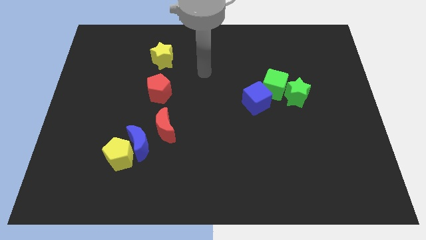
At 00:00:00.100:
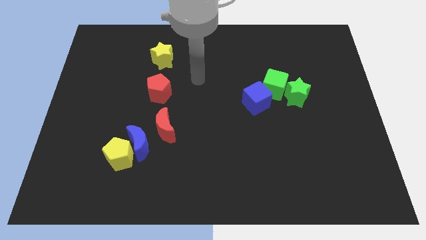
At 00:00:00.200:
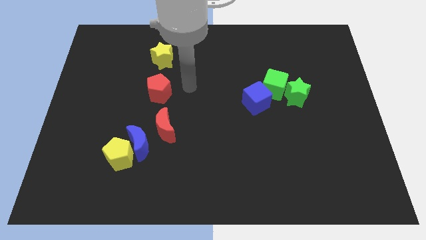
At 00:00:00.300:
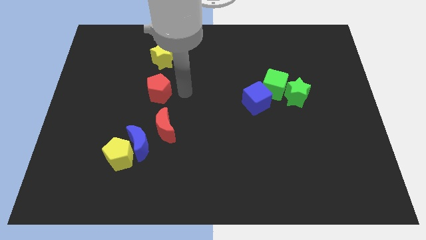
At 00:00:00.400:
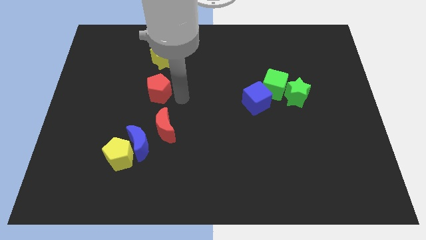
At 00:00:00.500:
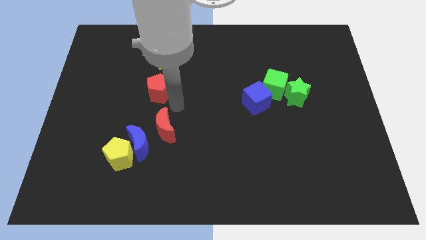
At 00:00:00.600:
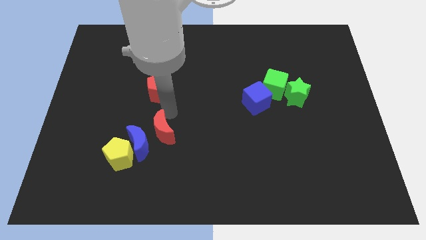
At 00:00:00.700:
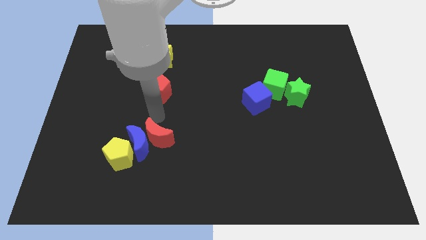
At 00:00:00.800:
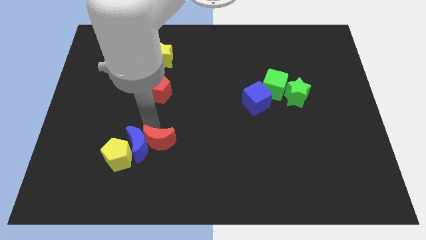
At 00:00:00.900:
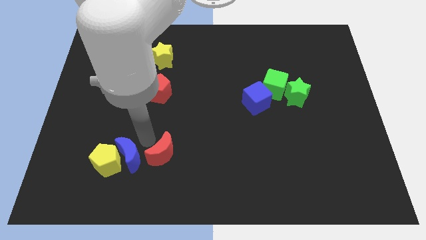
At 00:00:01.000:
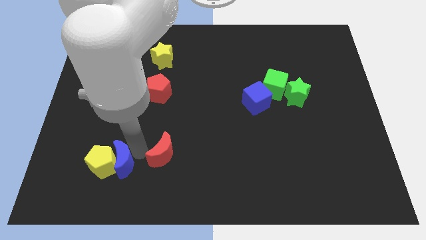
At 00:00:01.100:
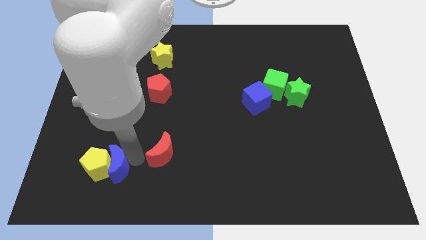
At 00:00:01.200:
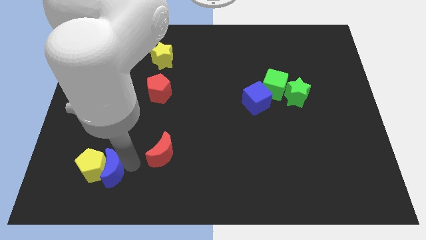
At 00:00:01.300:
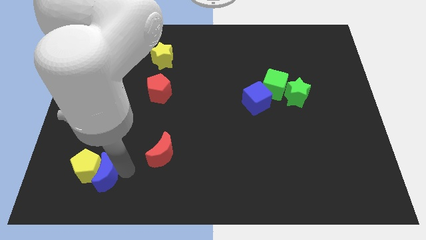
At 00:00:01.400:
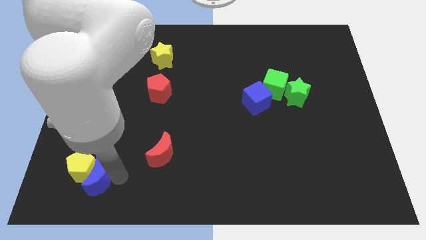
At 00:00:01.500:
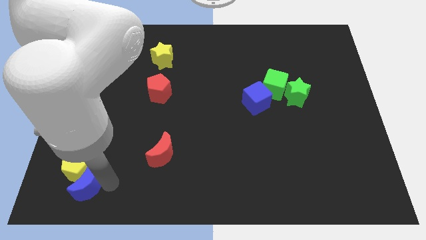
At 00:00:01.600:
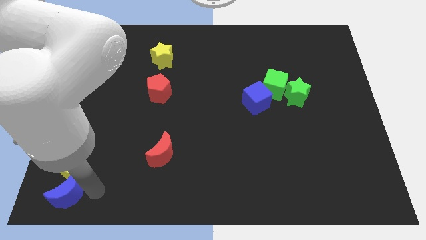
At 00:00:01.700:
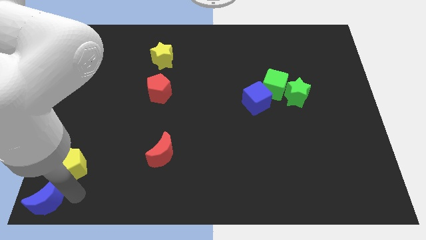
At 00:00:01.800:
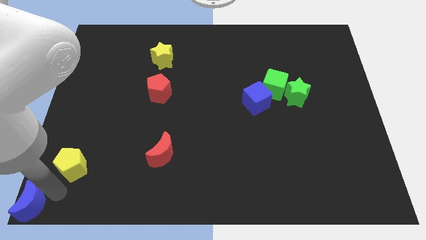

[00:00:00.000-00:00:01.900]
separate the yellow pentagon from the blue moon

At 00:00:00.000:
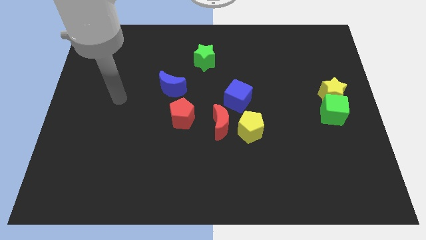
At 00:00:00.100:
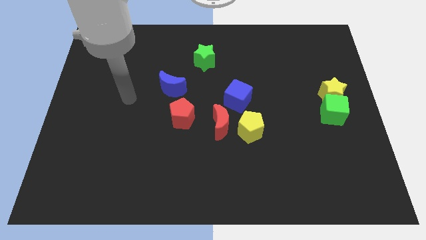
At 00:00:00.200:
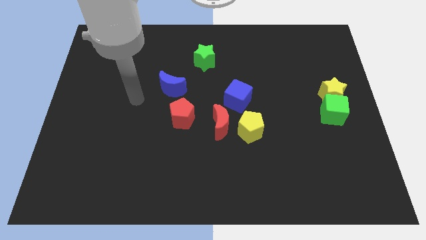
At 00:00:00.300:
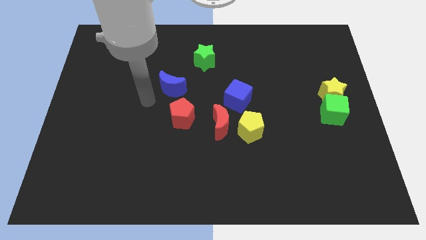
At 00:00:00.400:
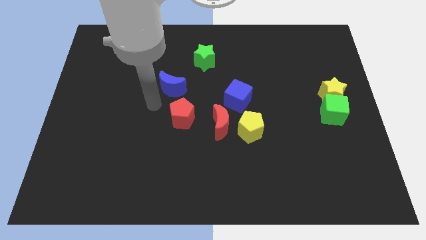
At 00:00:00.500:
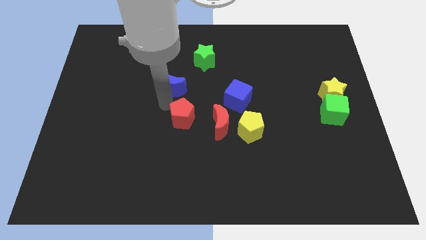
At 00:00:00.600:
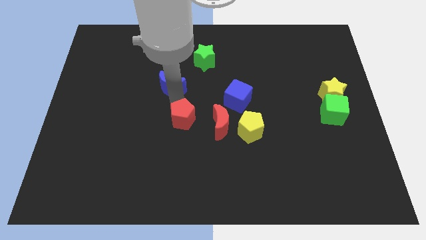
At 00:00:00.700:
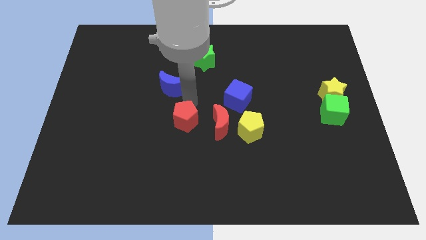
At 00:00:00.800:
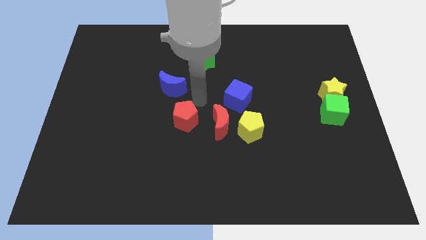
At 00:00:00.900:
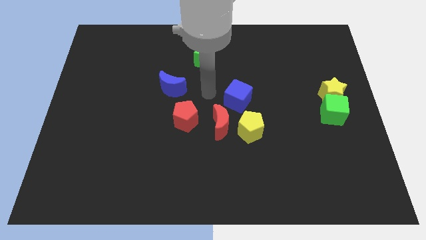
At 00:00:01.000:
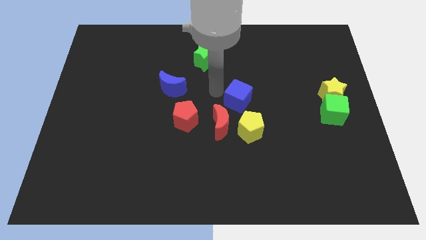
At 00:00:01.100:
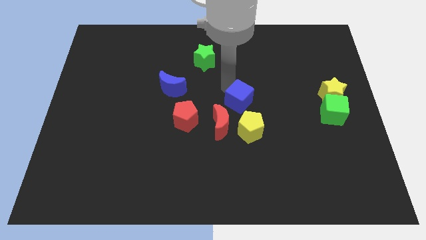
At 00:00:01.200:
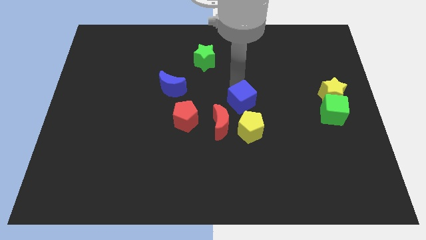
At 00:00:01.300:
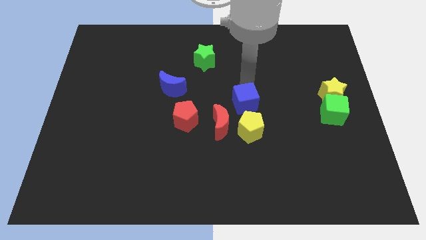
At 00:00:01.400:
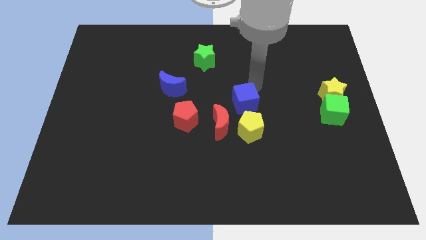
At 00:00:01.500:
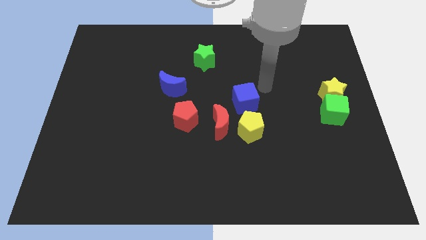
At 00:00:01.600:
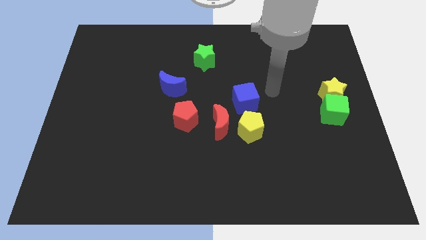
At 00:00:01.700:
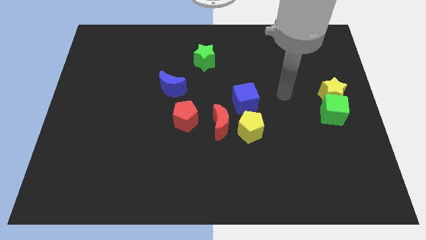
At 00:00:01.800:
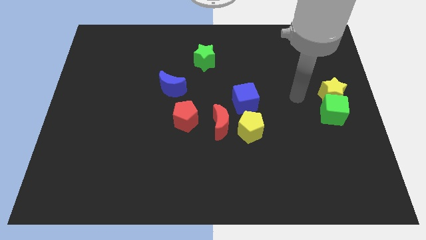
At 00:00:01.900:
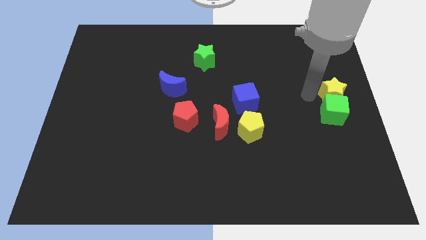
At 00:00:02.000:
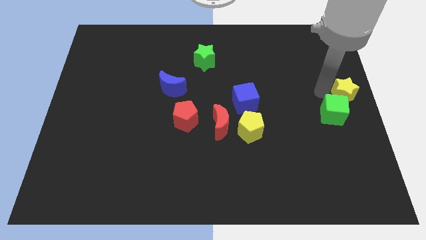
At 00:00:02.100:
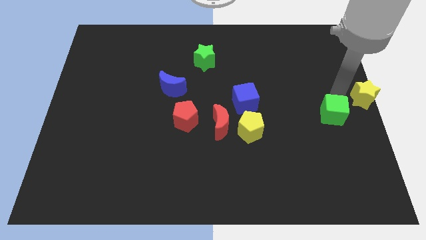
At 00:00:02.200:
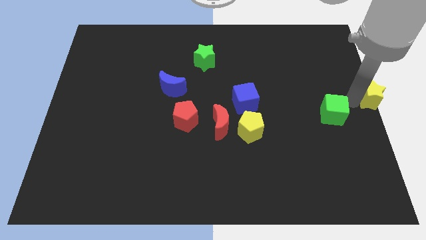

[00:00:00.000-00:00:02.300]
pull the green cube apart from the yellow star

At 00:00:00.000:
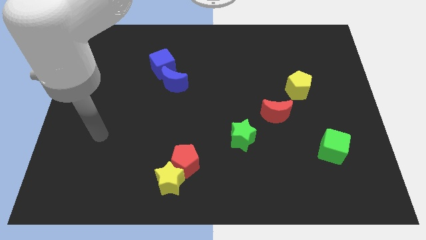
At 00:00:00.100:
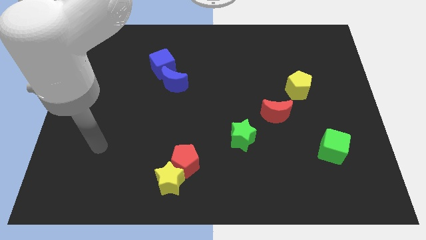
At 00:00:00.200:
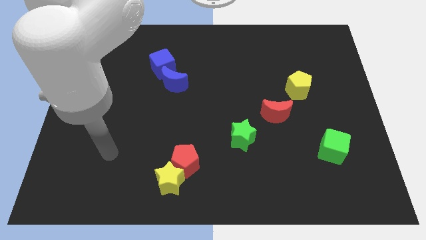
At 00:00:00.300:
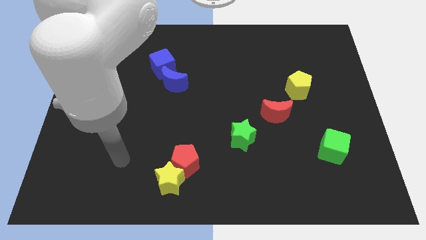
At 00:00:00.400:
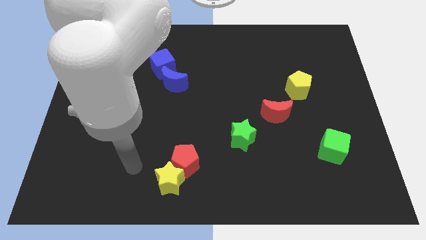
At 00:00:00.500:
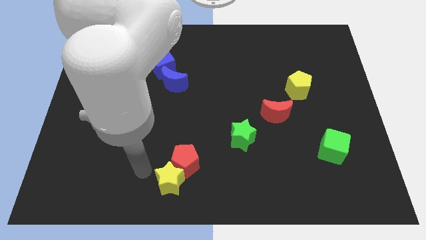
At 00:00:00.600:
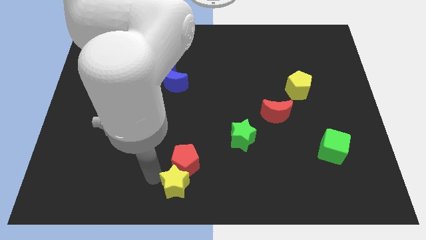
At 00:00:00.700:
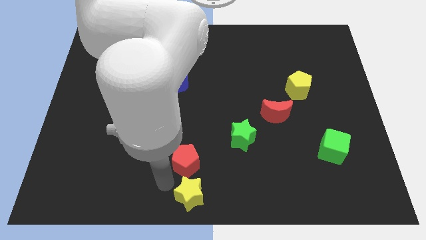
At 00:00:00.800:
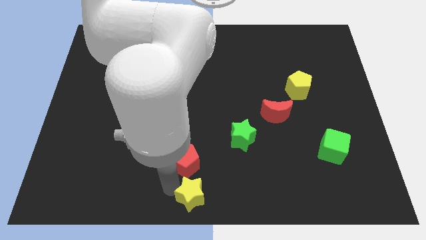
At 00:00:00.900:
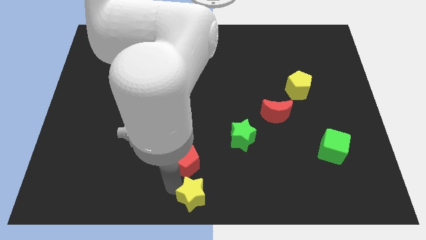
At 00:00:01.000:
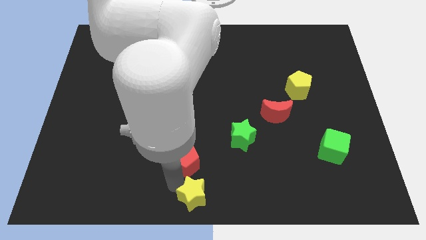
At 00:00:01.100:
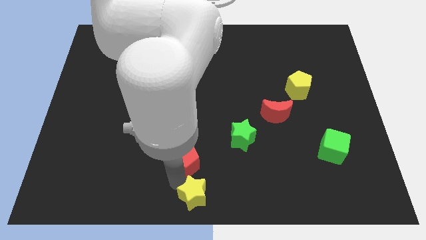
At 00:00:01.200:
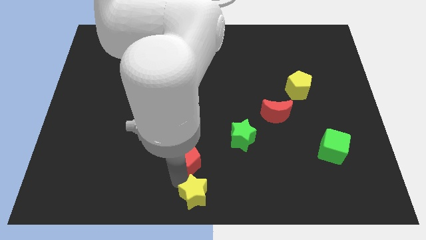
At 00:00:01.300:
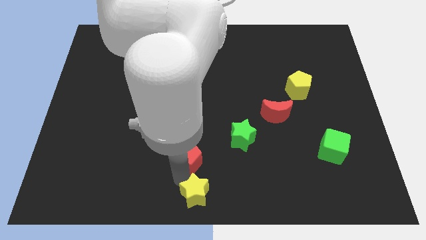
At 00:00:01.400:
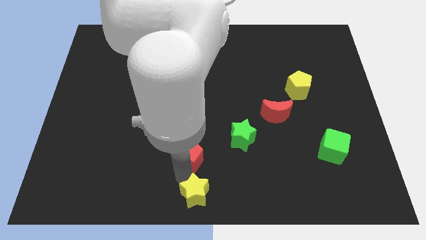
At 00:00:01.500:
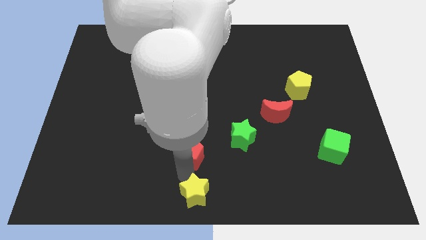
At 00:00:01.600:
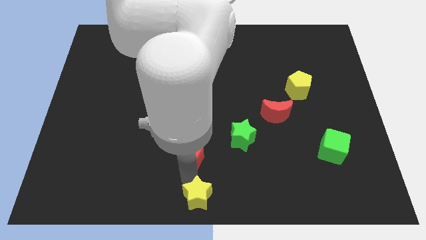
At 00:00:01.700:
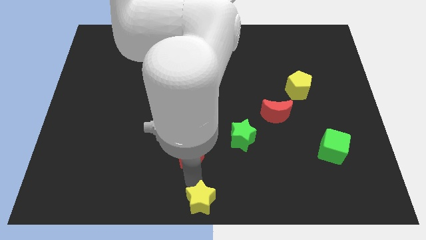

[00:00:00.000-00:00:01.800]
separate the red pentagon from the yellow star

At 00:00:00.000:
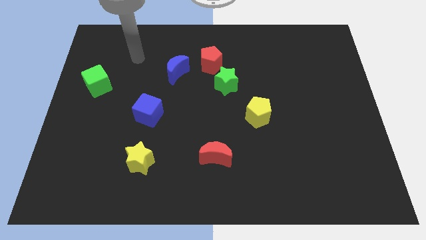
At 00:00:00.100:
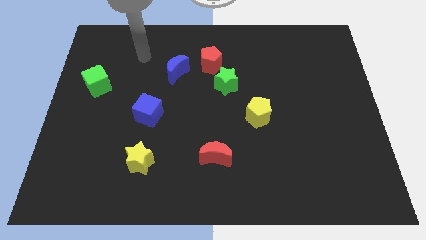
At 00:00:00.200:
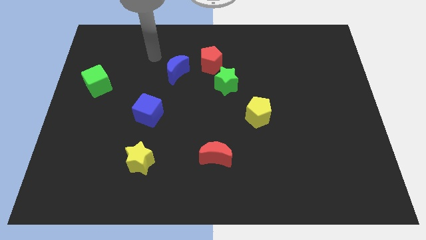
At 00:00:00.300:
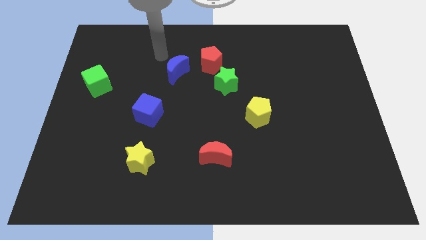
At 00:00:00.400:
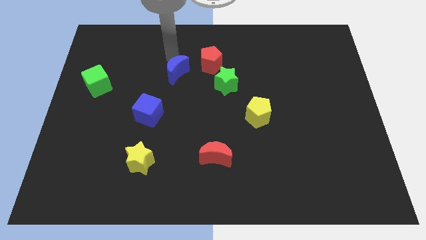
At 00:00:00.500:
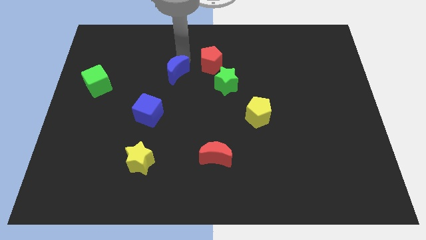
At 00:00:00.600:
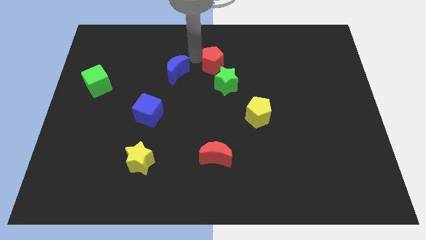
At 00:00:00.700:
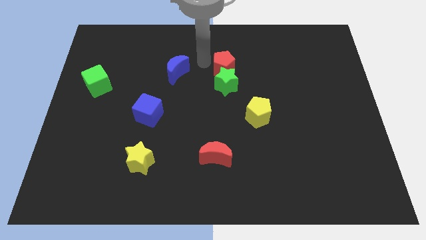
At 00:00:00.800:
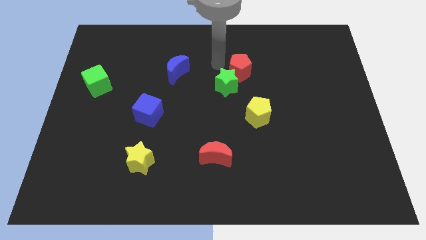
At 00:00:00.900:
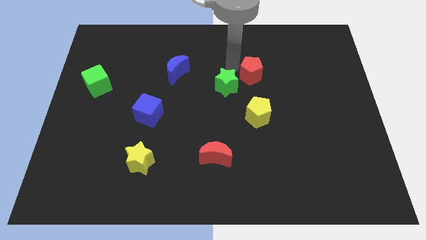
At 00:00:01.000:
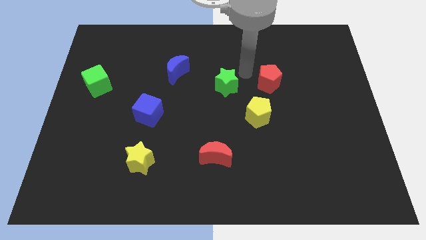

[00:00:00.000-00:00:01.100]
pull the green star apart from the red pentagon

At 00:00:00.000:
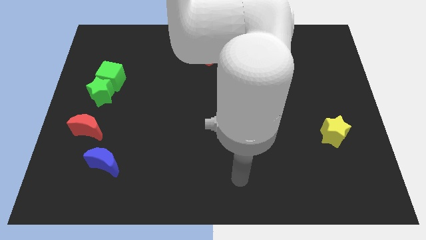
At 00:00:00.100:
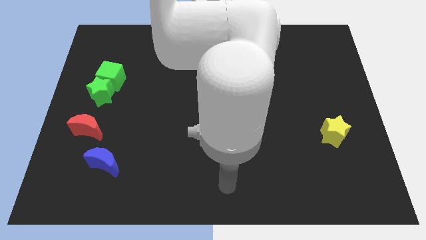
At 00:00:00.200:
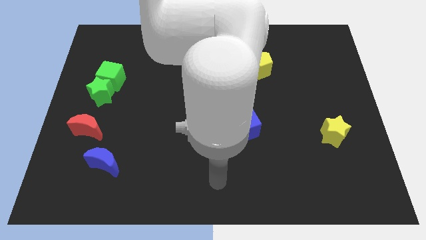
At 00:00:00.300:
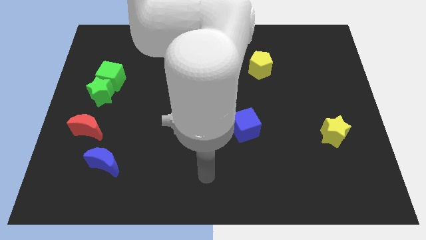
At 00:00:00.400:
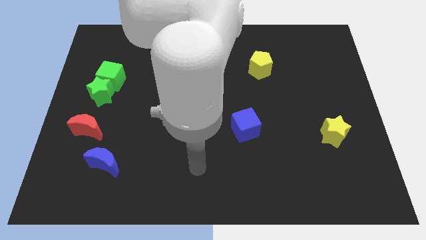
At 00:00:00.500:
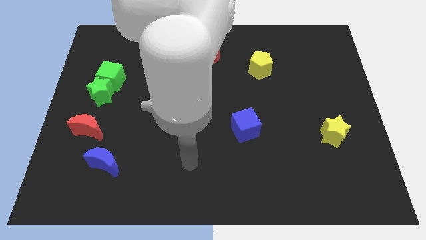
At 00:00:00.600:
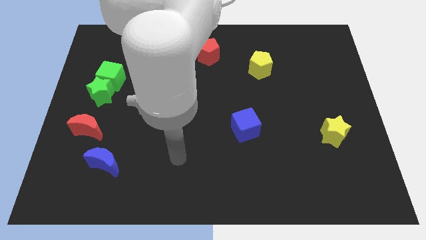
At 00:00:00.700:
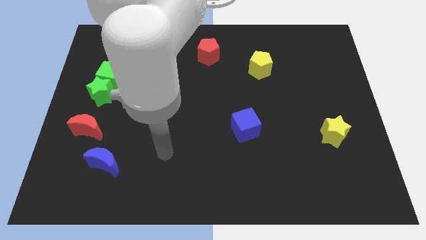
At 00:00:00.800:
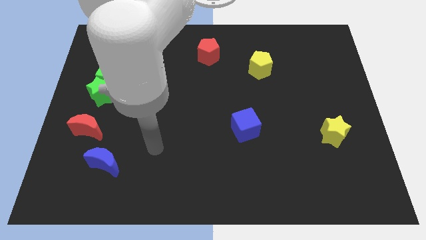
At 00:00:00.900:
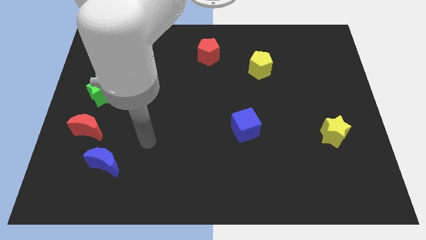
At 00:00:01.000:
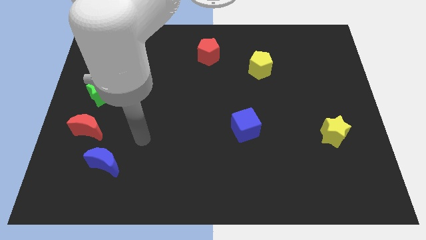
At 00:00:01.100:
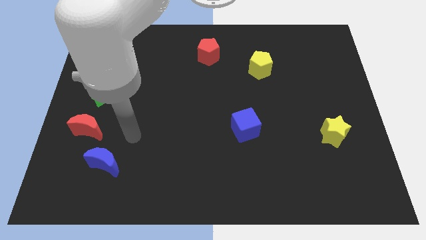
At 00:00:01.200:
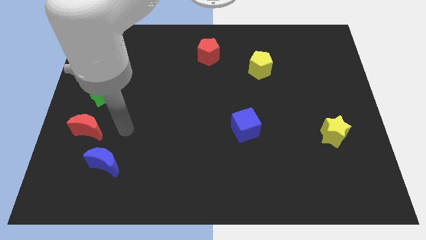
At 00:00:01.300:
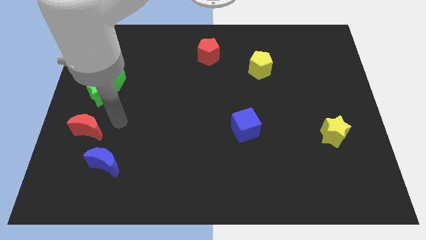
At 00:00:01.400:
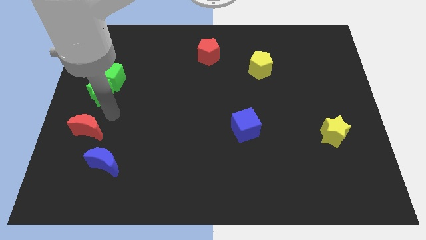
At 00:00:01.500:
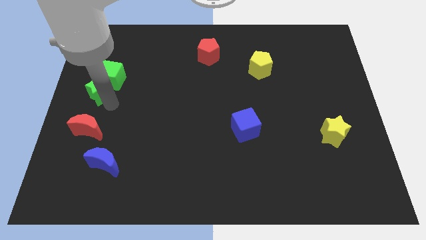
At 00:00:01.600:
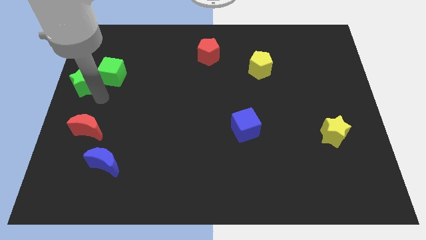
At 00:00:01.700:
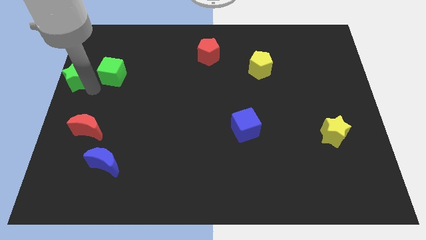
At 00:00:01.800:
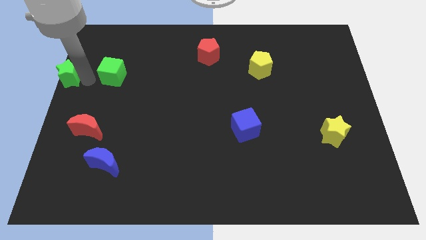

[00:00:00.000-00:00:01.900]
pull the green cube apart from the green star
